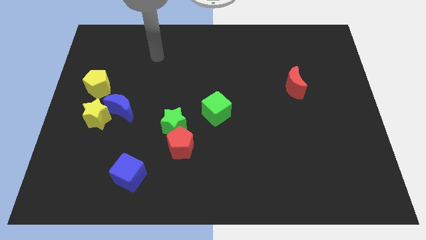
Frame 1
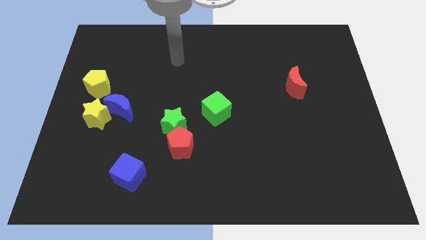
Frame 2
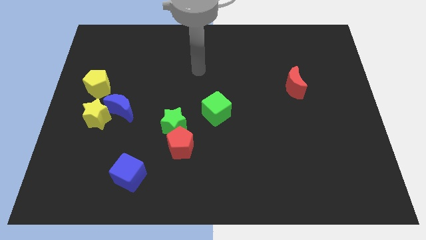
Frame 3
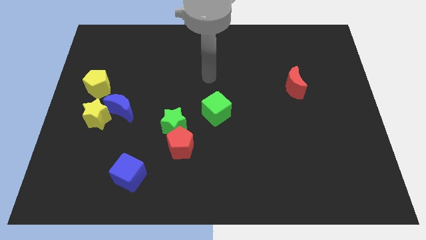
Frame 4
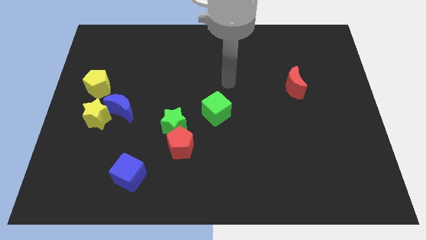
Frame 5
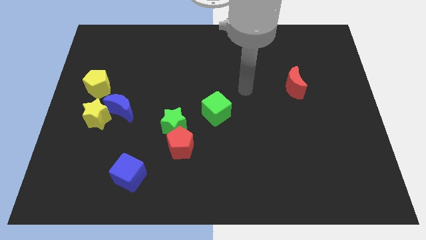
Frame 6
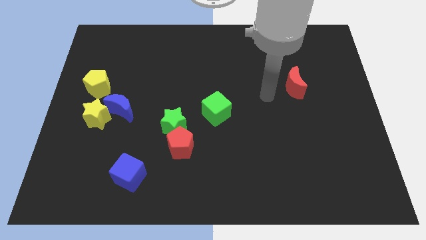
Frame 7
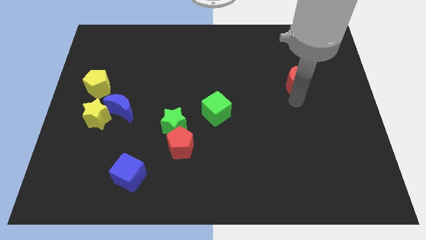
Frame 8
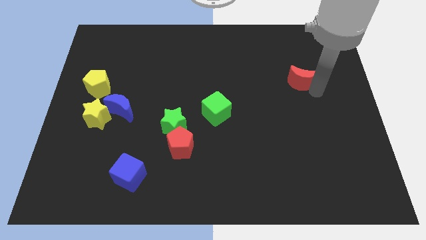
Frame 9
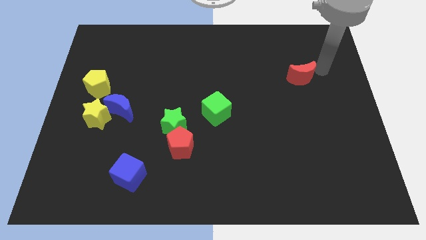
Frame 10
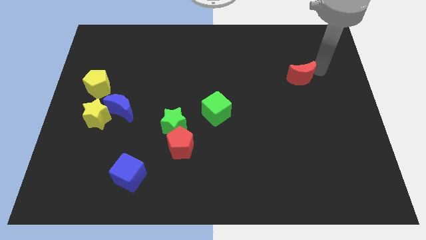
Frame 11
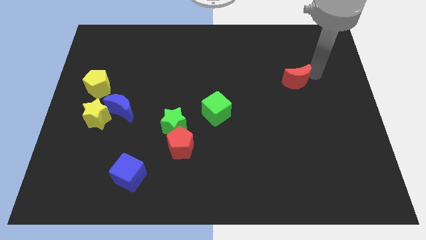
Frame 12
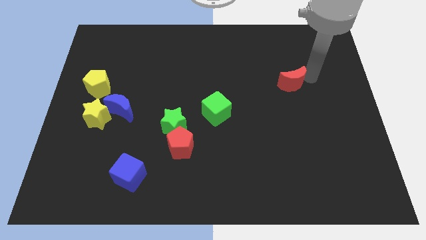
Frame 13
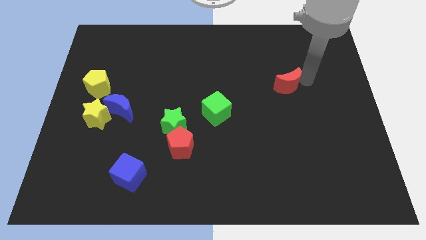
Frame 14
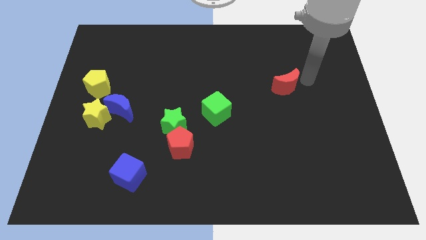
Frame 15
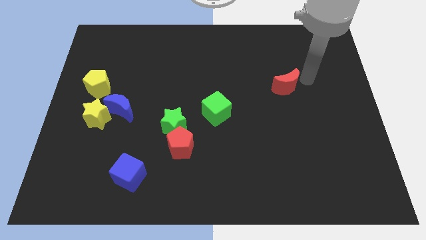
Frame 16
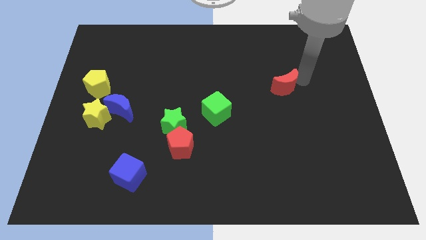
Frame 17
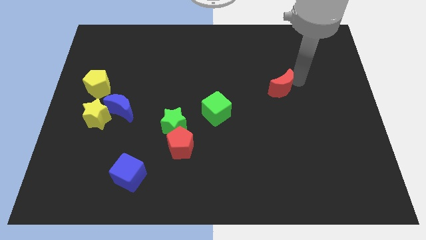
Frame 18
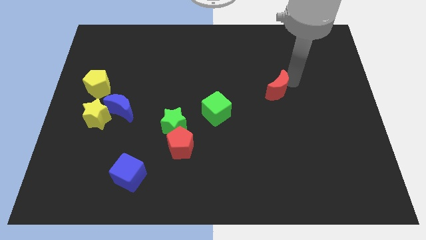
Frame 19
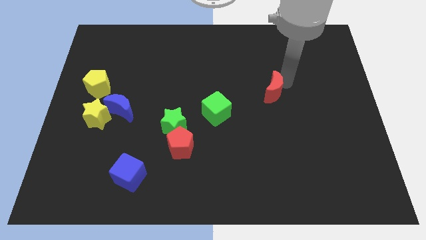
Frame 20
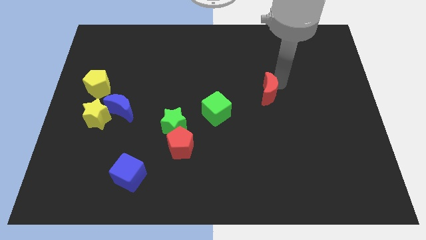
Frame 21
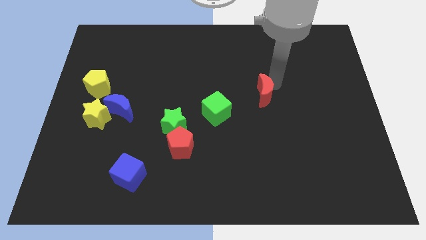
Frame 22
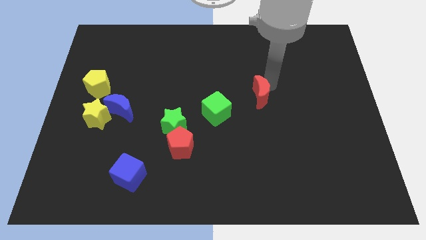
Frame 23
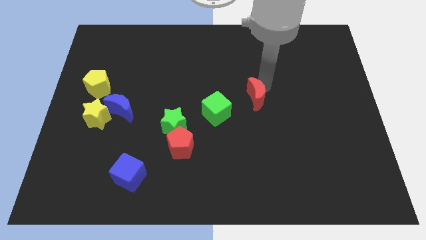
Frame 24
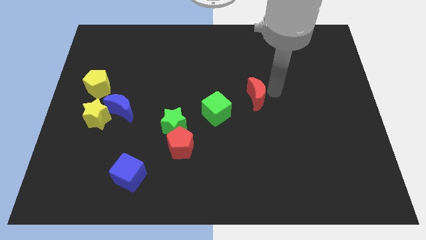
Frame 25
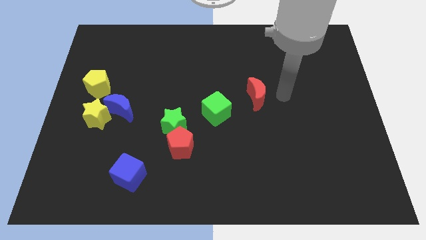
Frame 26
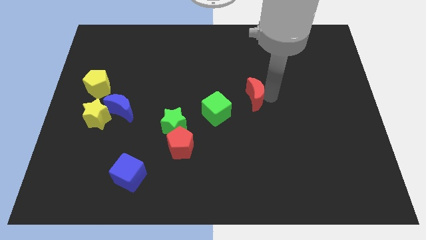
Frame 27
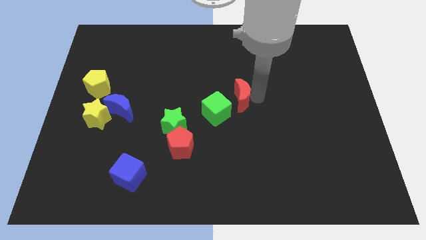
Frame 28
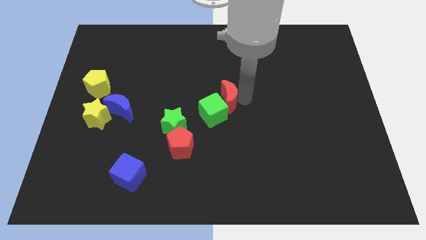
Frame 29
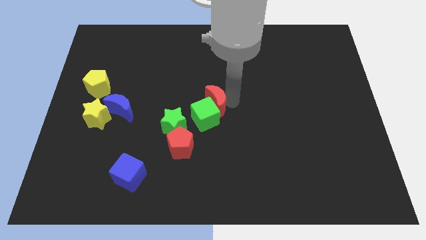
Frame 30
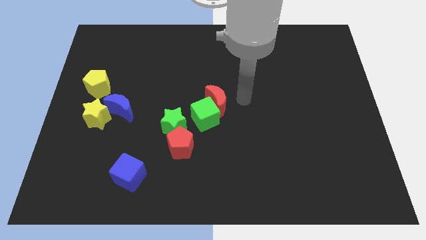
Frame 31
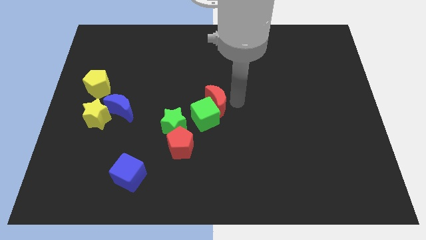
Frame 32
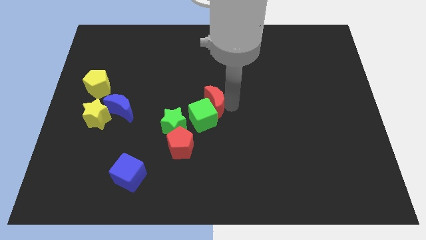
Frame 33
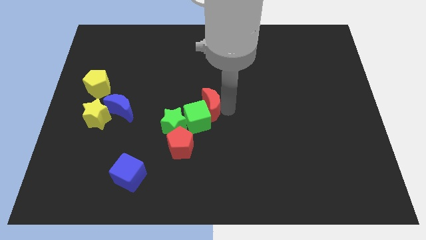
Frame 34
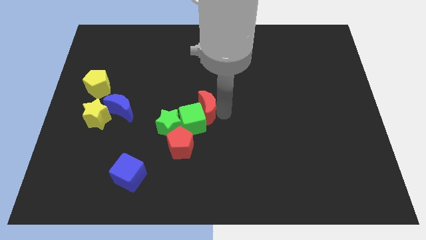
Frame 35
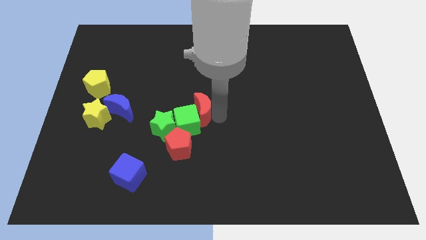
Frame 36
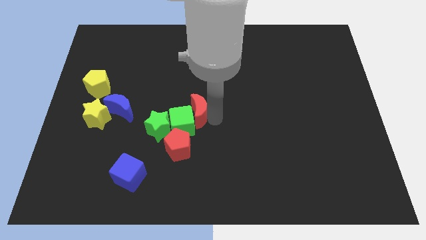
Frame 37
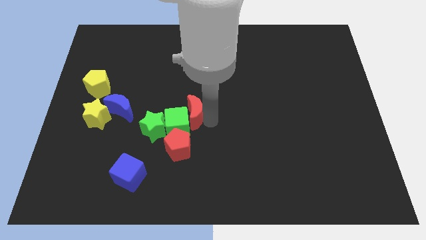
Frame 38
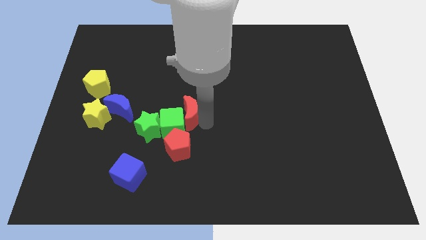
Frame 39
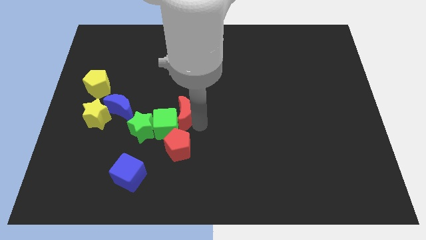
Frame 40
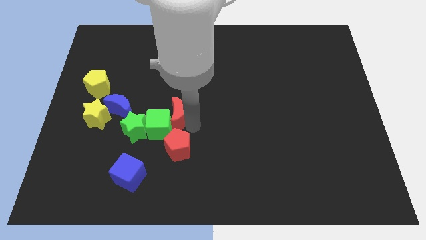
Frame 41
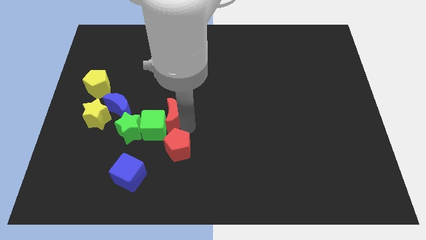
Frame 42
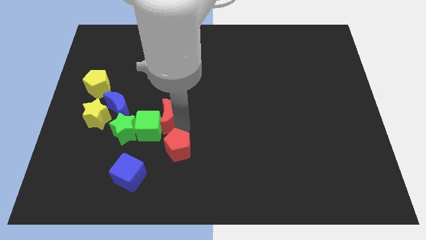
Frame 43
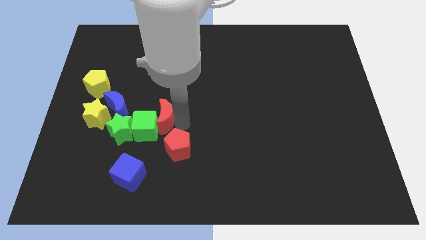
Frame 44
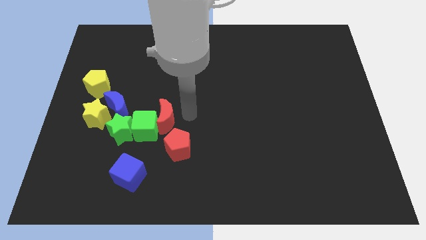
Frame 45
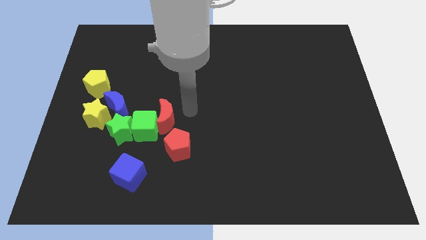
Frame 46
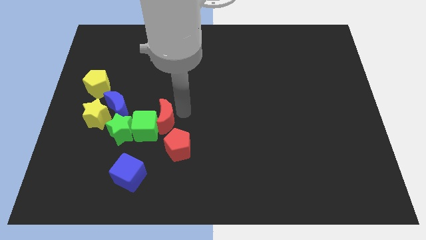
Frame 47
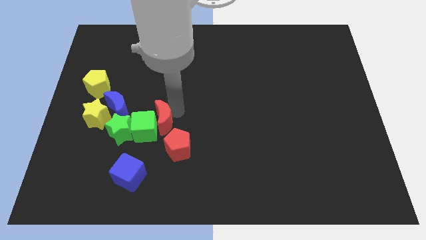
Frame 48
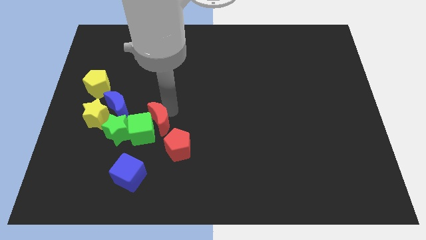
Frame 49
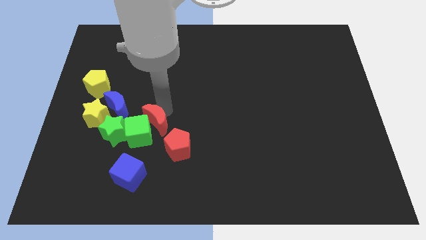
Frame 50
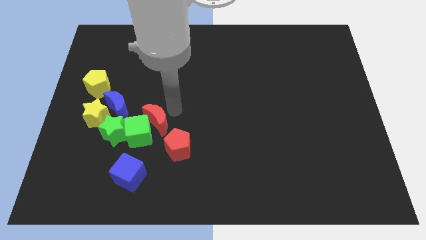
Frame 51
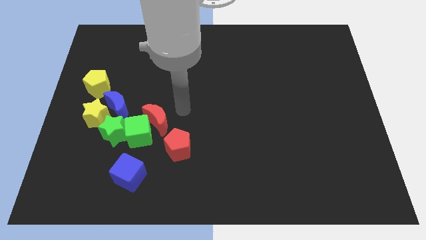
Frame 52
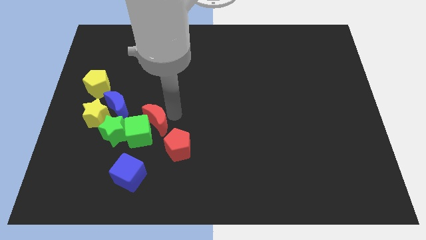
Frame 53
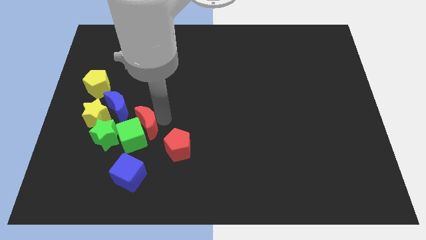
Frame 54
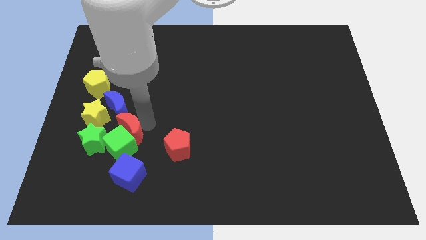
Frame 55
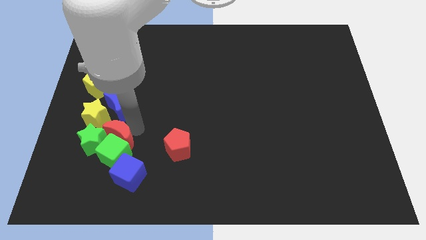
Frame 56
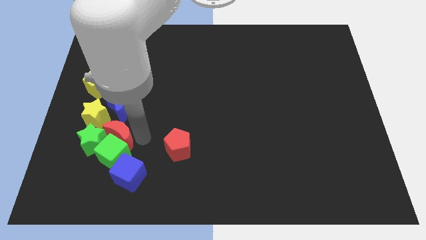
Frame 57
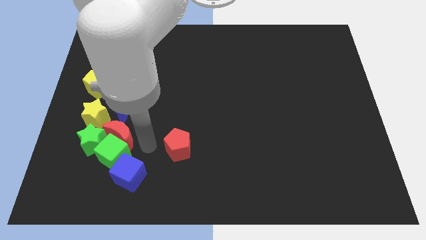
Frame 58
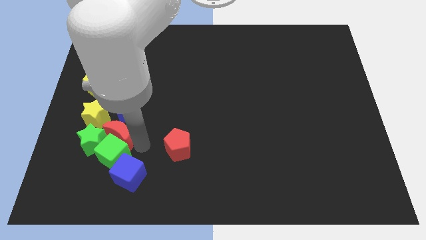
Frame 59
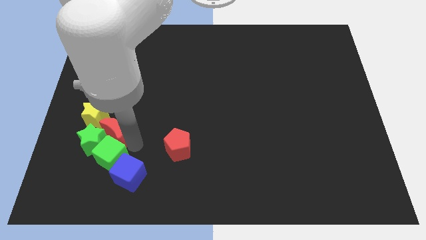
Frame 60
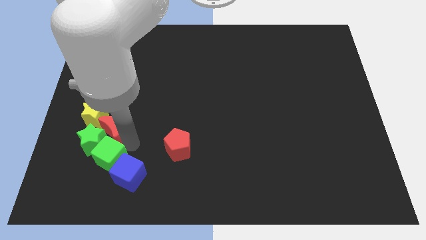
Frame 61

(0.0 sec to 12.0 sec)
slide the red moon to the bottom left side of the blue moon

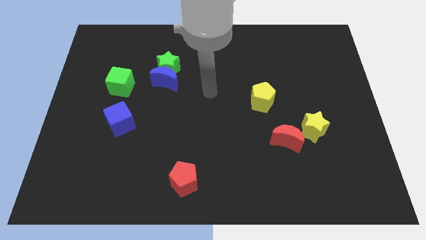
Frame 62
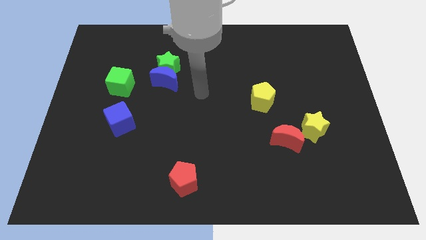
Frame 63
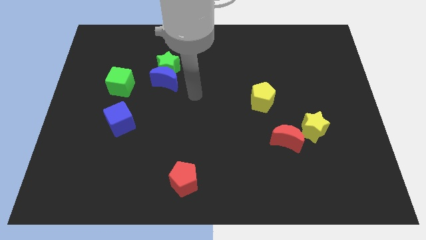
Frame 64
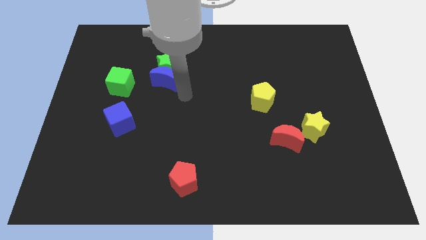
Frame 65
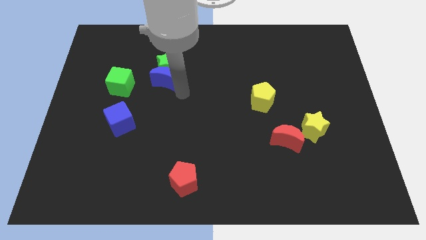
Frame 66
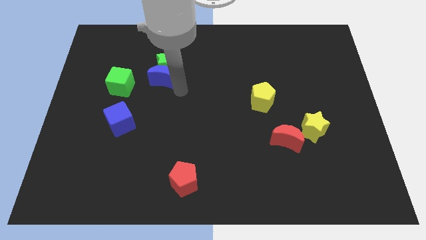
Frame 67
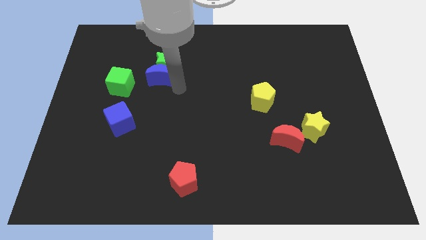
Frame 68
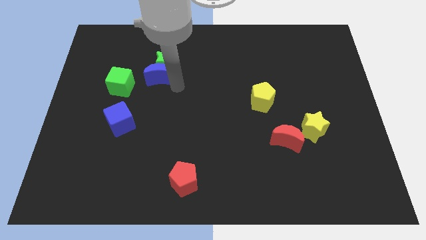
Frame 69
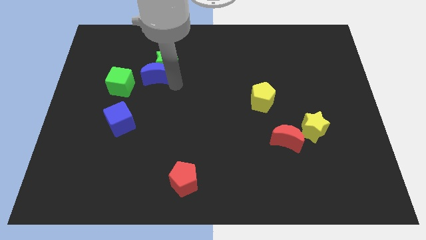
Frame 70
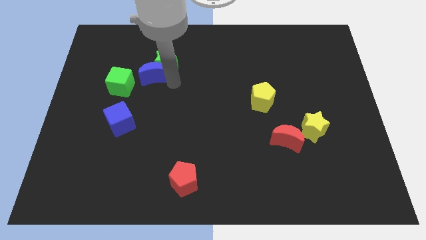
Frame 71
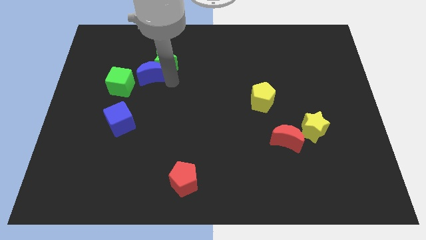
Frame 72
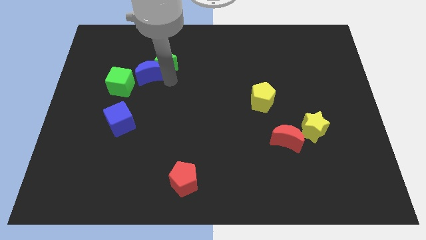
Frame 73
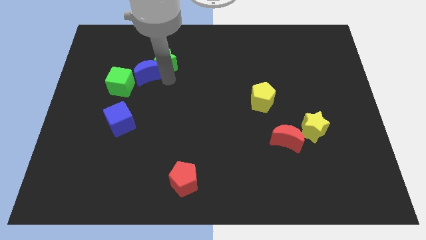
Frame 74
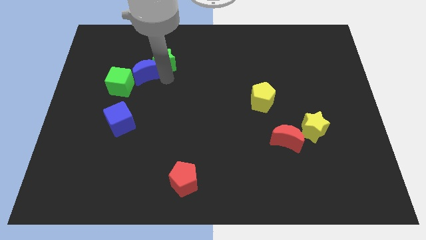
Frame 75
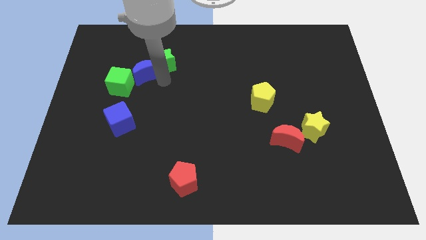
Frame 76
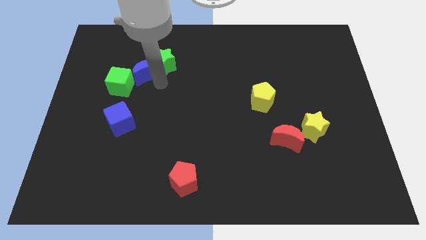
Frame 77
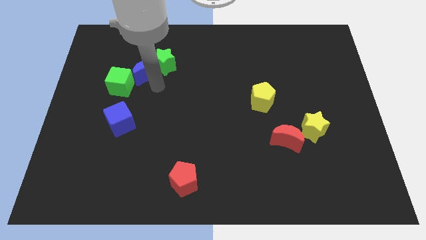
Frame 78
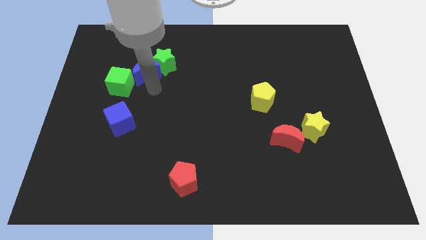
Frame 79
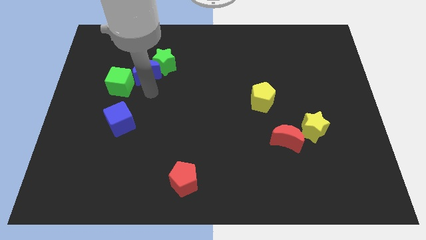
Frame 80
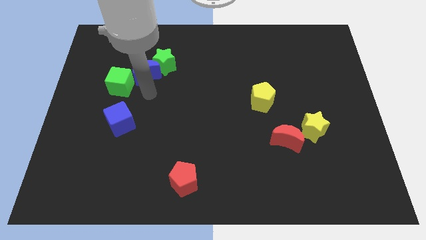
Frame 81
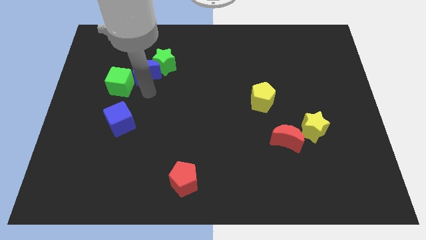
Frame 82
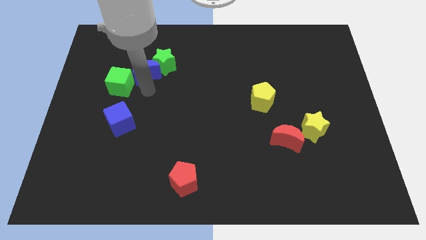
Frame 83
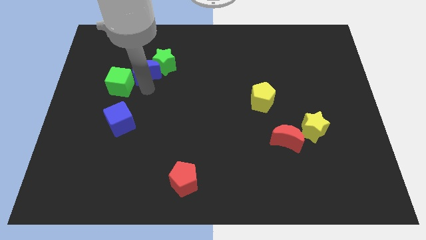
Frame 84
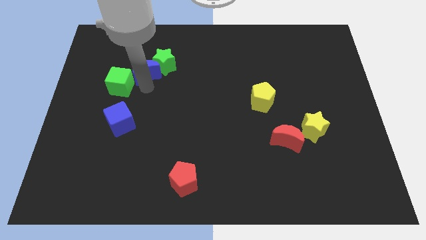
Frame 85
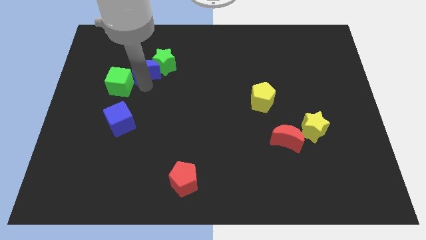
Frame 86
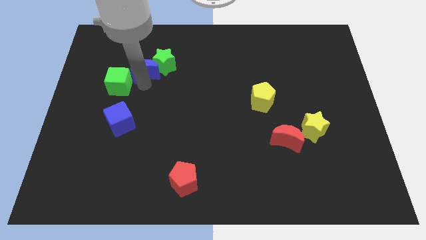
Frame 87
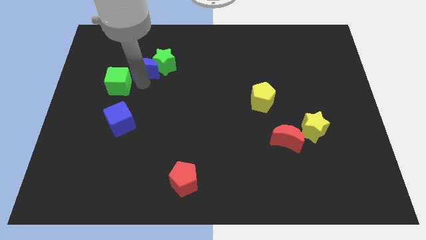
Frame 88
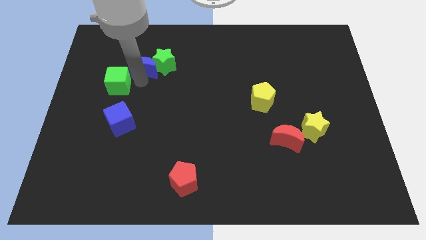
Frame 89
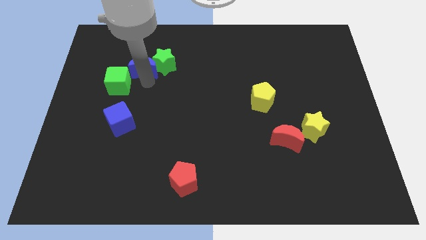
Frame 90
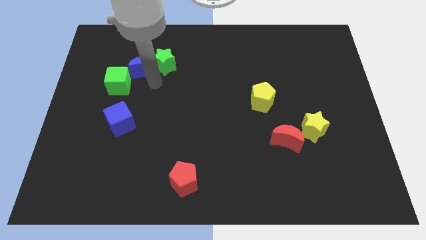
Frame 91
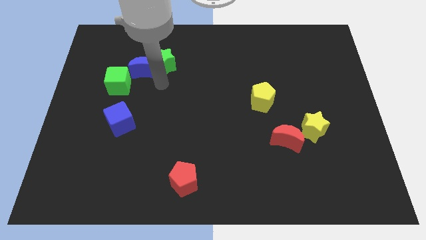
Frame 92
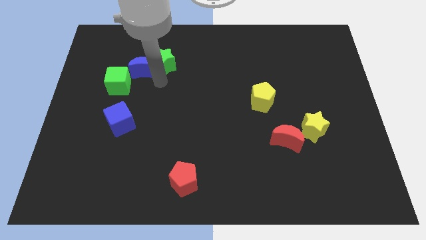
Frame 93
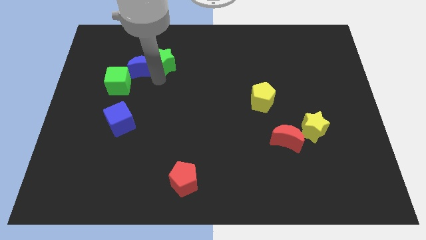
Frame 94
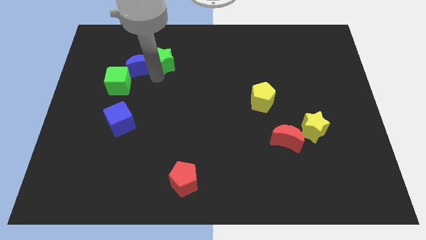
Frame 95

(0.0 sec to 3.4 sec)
move the blue moon to the top of the green cube
